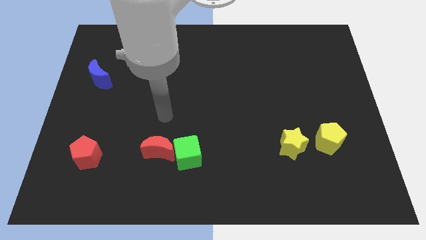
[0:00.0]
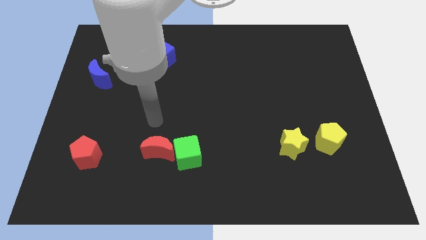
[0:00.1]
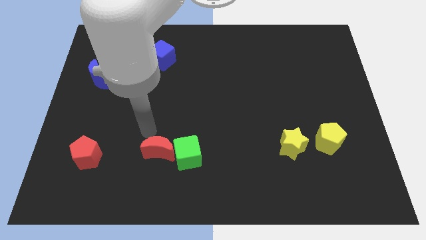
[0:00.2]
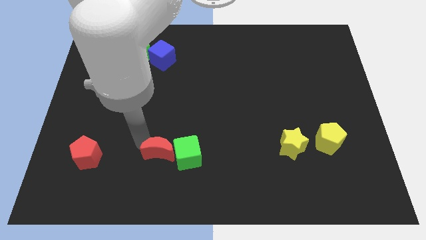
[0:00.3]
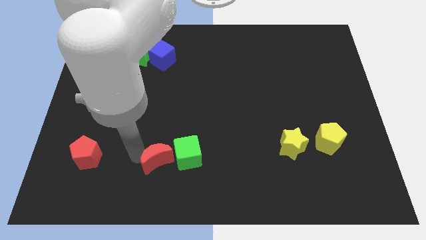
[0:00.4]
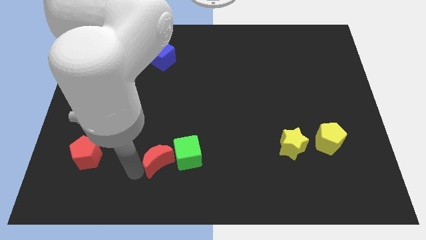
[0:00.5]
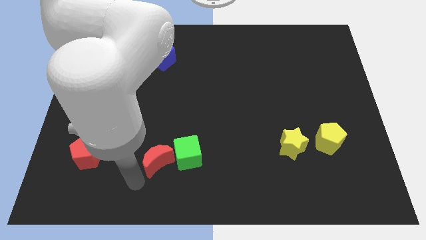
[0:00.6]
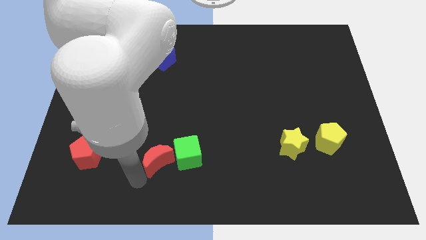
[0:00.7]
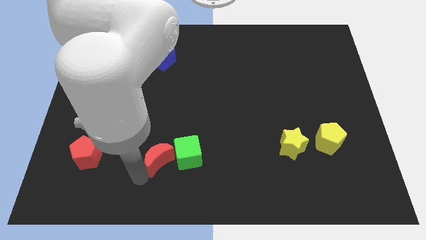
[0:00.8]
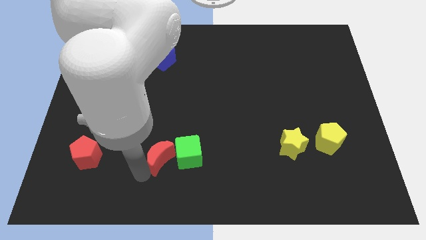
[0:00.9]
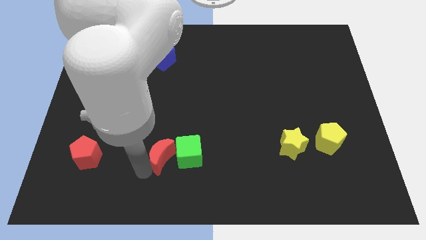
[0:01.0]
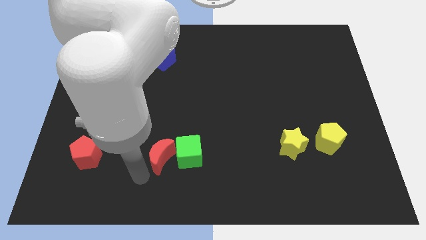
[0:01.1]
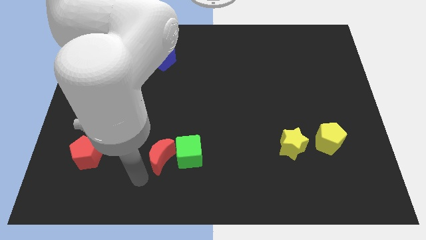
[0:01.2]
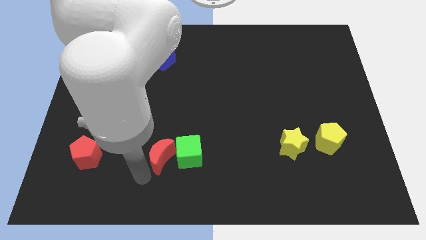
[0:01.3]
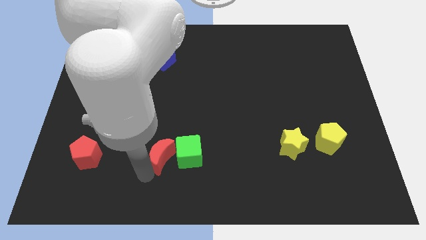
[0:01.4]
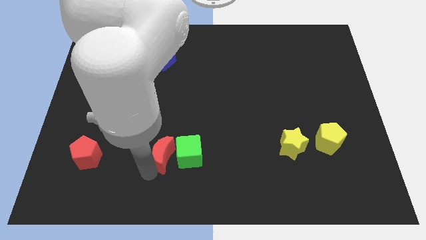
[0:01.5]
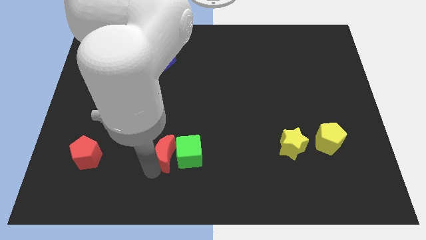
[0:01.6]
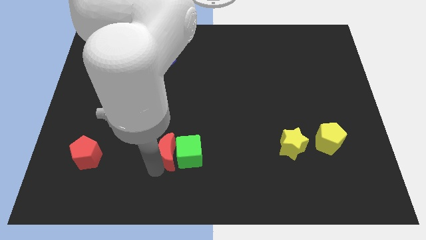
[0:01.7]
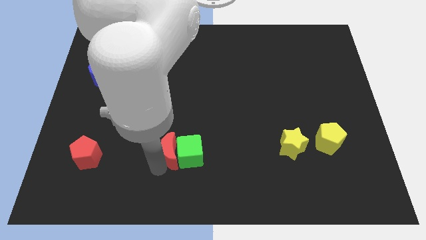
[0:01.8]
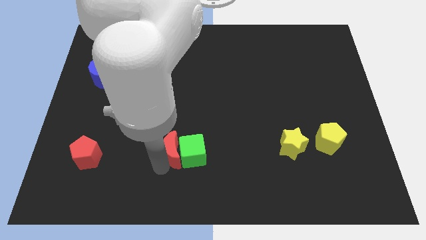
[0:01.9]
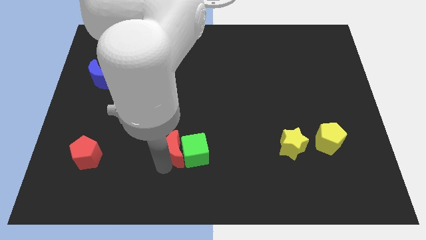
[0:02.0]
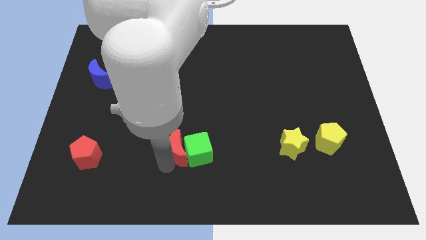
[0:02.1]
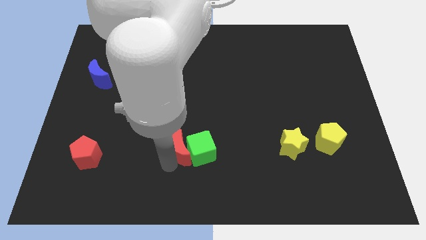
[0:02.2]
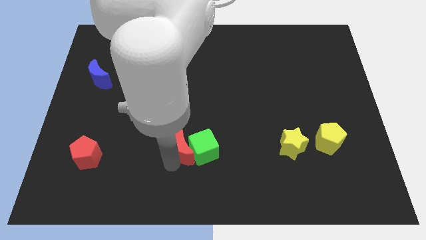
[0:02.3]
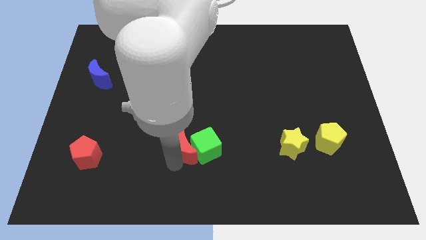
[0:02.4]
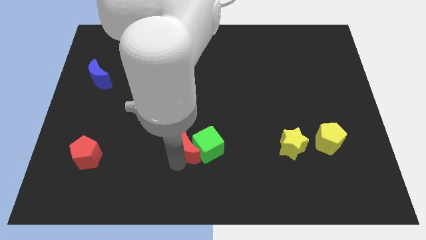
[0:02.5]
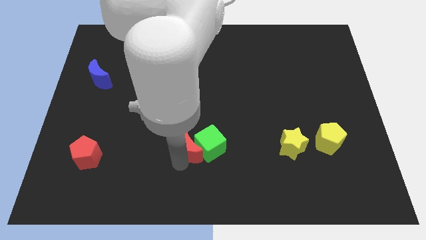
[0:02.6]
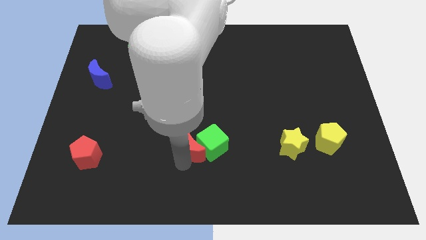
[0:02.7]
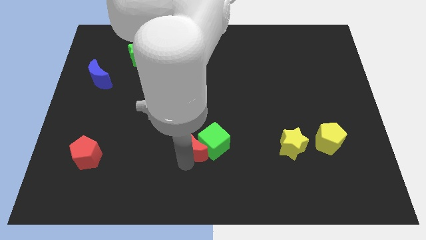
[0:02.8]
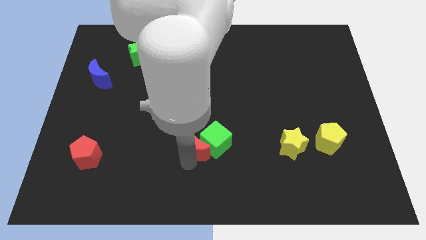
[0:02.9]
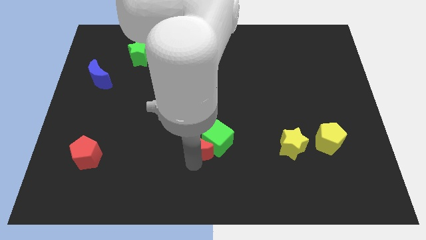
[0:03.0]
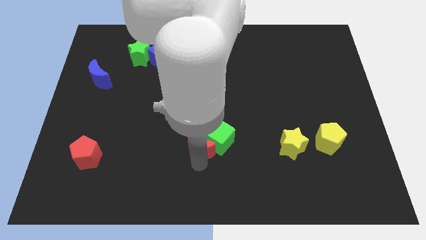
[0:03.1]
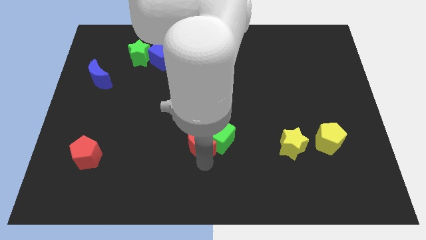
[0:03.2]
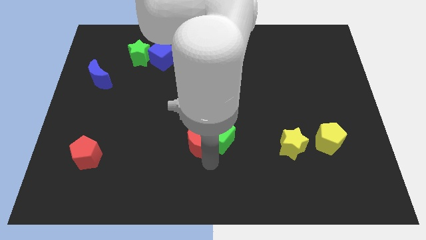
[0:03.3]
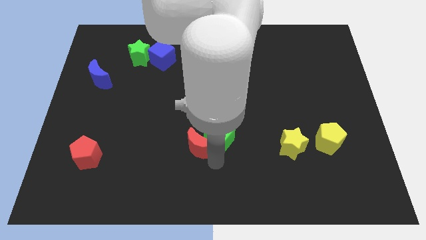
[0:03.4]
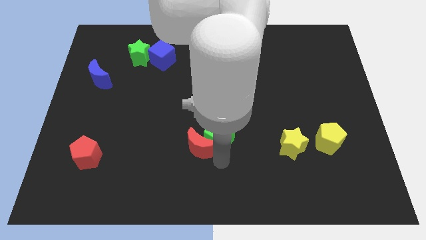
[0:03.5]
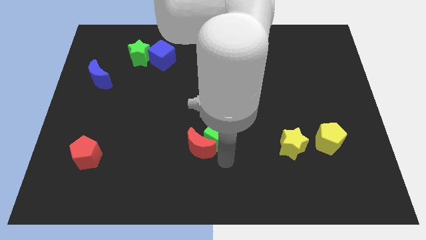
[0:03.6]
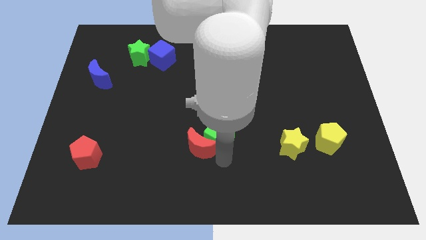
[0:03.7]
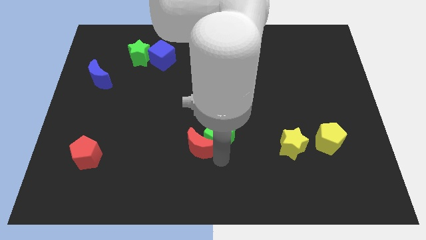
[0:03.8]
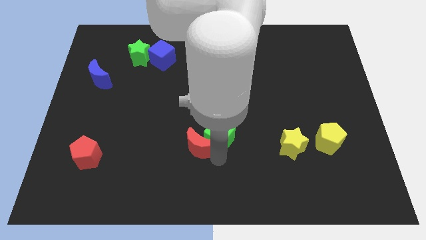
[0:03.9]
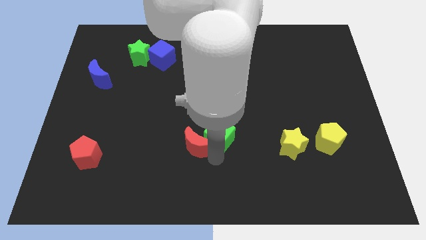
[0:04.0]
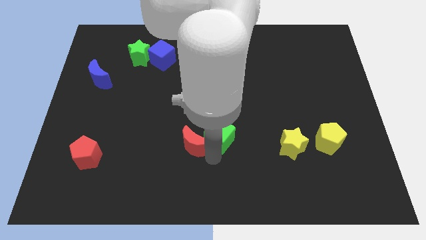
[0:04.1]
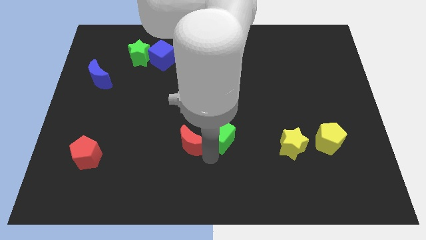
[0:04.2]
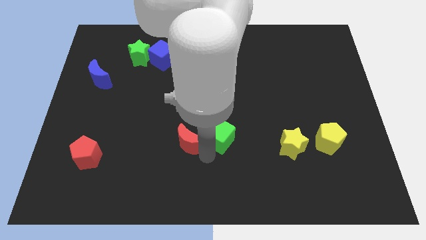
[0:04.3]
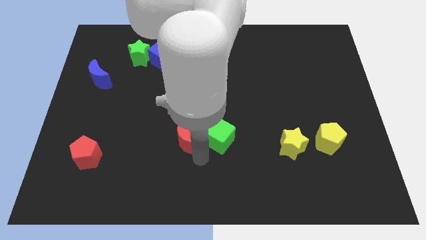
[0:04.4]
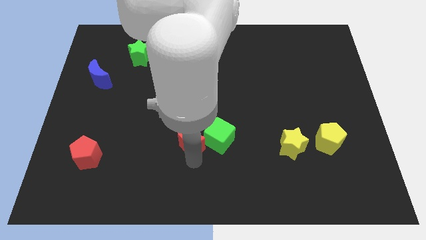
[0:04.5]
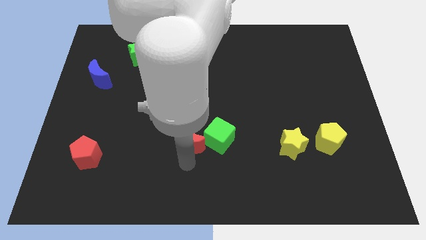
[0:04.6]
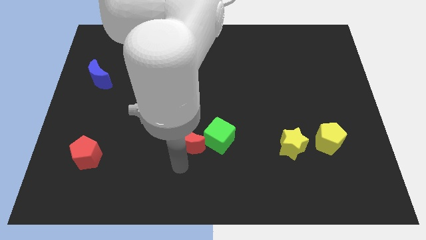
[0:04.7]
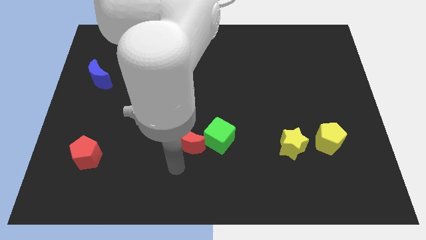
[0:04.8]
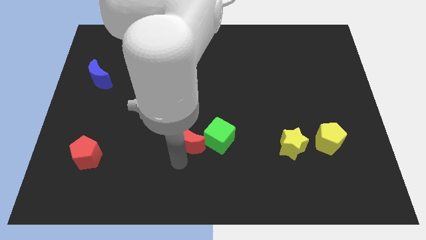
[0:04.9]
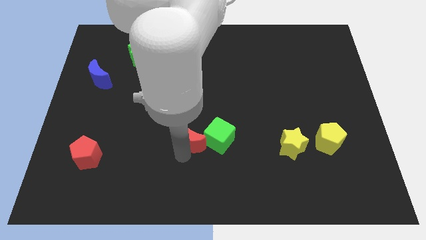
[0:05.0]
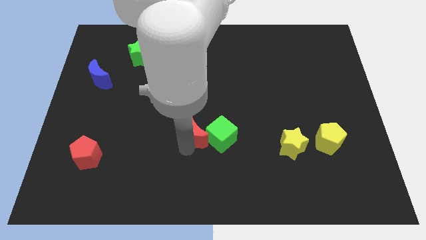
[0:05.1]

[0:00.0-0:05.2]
slightly move the red moon up and to the right diagonally

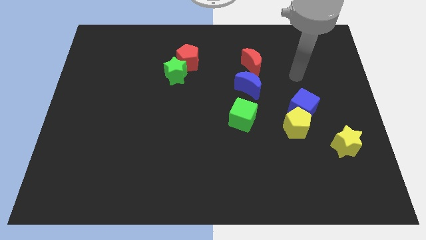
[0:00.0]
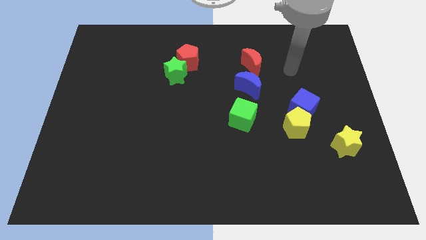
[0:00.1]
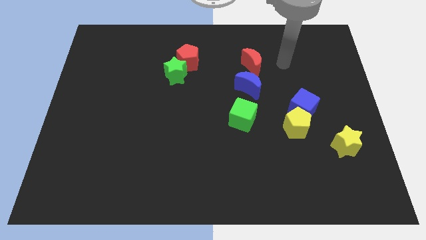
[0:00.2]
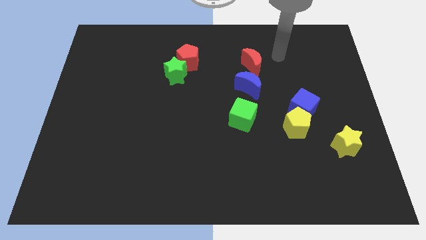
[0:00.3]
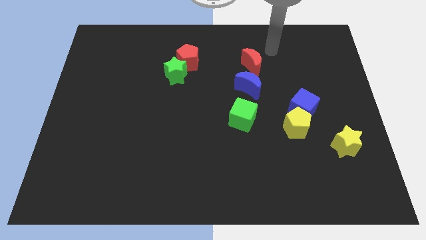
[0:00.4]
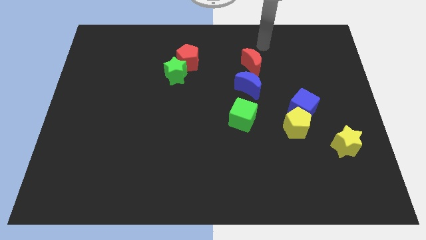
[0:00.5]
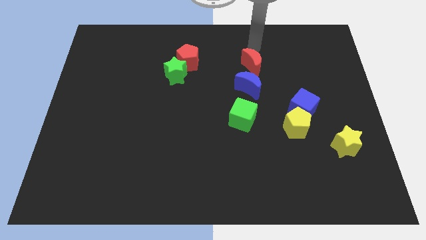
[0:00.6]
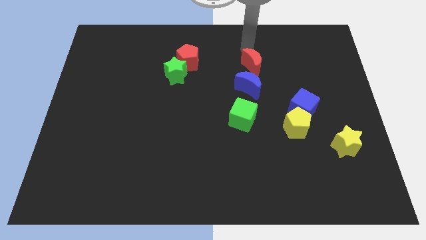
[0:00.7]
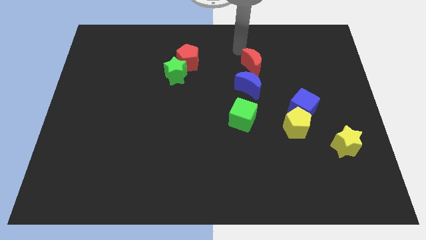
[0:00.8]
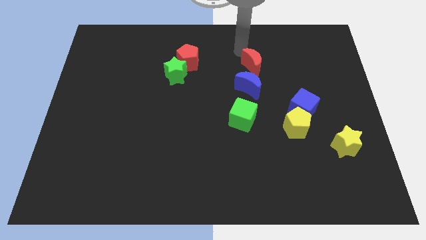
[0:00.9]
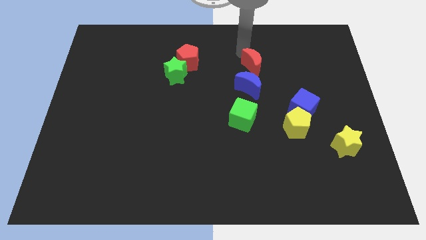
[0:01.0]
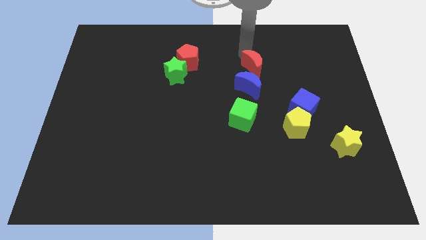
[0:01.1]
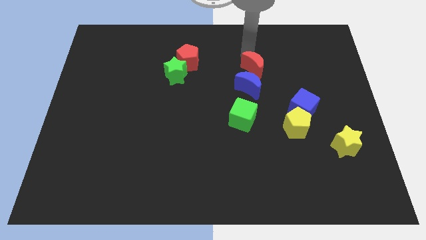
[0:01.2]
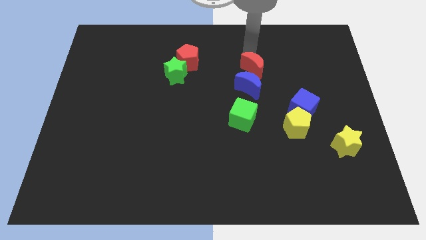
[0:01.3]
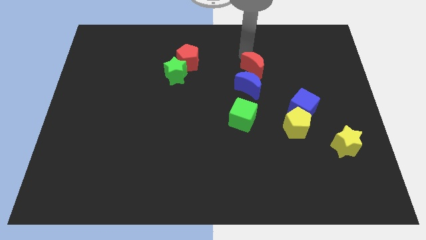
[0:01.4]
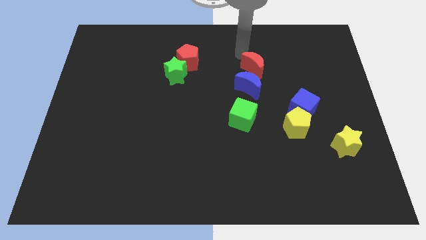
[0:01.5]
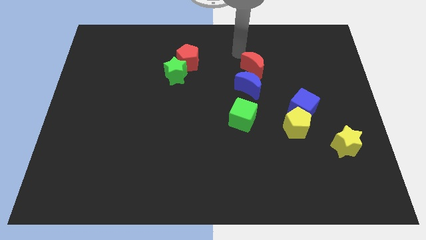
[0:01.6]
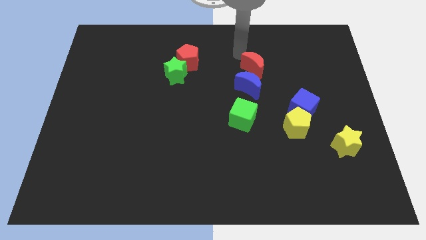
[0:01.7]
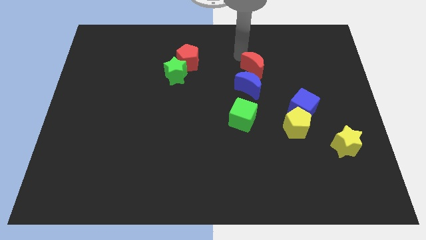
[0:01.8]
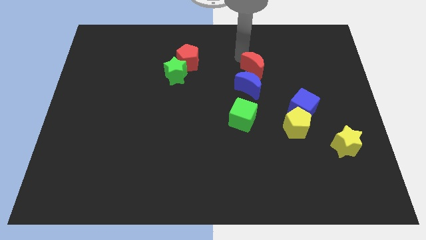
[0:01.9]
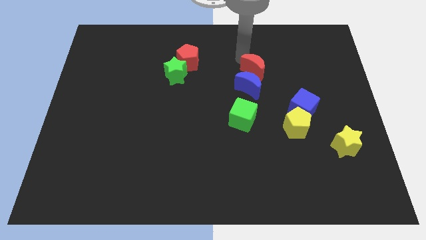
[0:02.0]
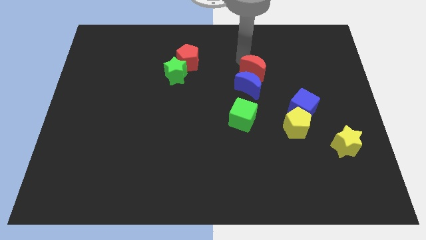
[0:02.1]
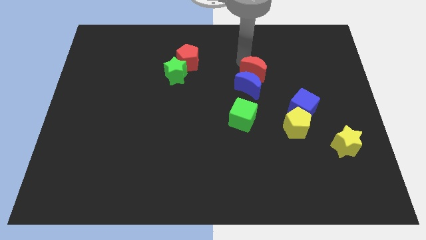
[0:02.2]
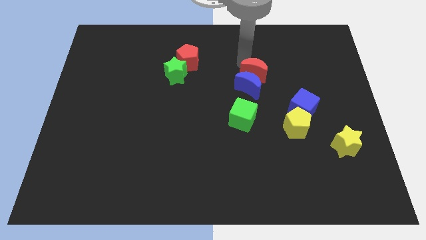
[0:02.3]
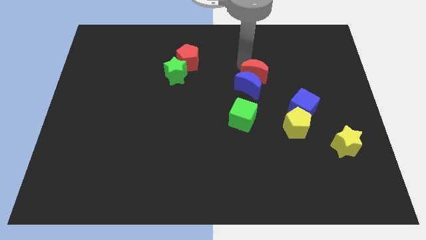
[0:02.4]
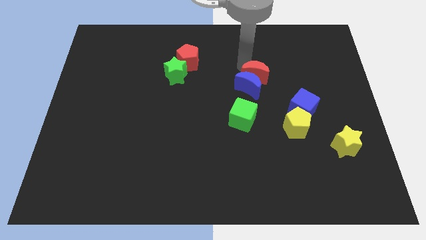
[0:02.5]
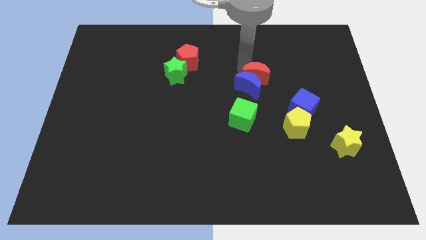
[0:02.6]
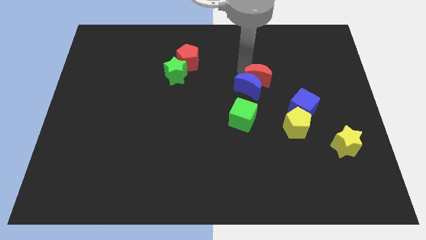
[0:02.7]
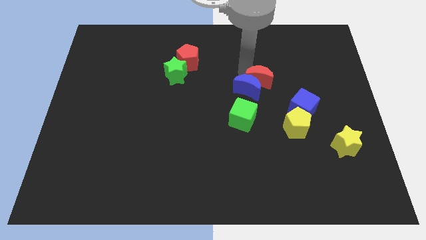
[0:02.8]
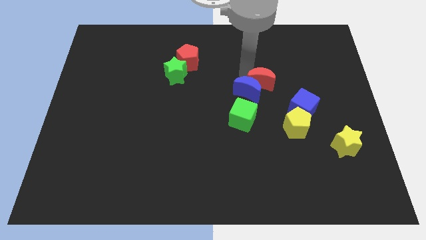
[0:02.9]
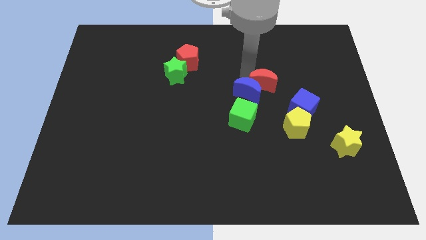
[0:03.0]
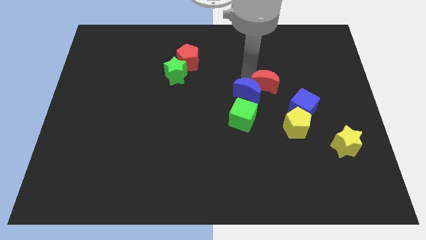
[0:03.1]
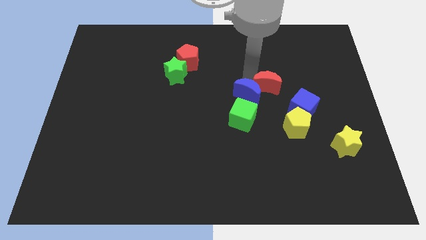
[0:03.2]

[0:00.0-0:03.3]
slide the red moon somewhat down
